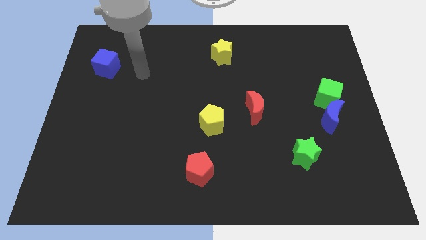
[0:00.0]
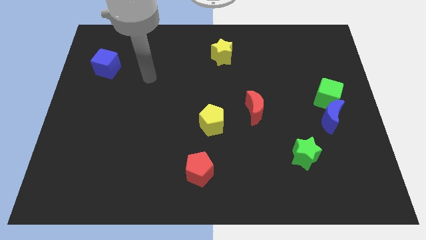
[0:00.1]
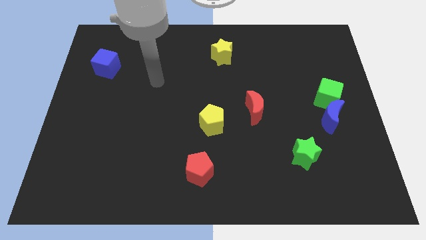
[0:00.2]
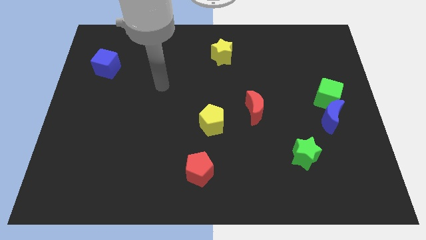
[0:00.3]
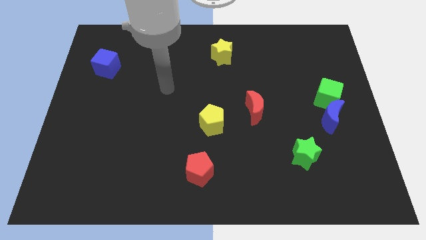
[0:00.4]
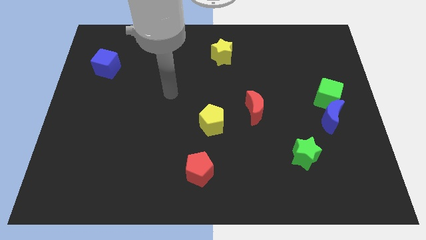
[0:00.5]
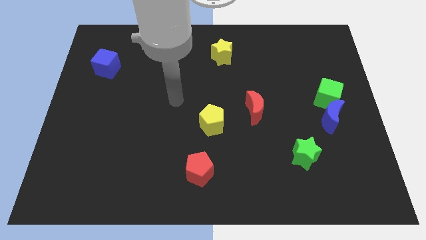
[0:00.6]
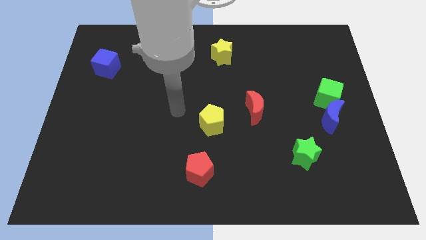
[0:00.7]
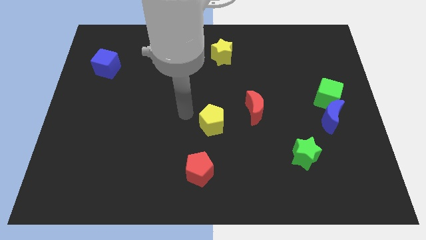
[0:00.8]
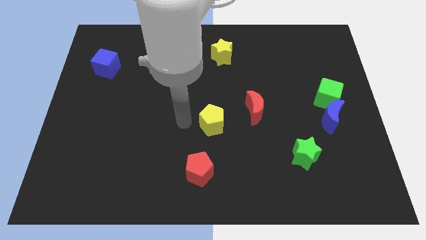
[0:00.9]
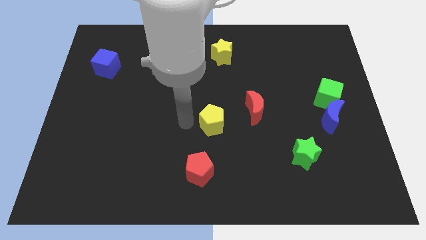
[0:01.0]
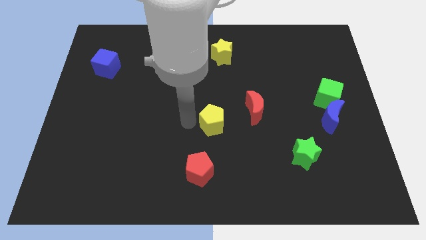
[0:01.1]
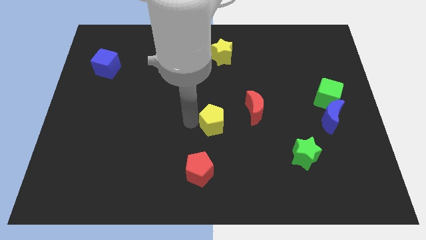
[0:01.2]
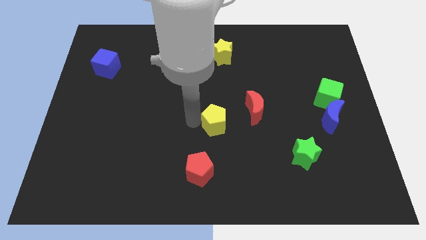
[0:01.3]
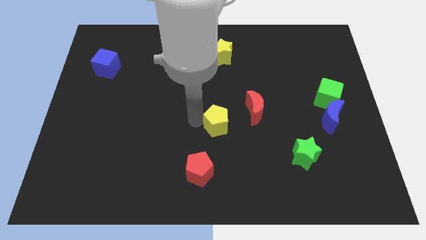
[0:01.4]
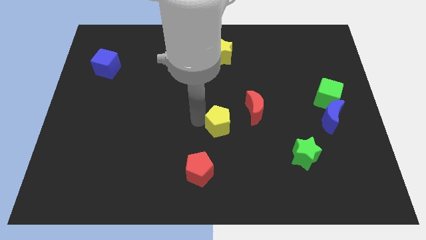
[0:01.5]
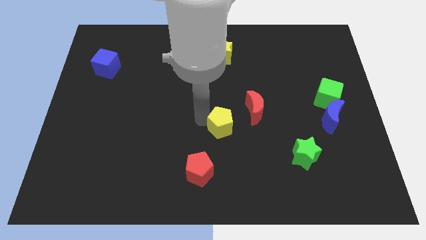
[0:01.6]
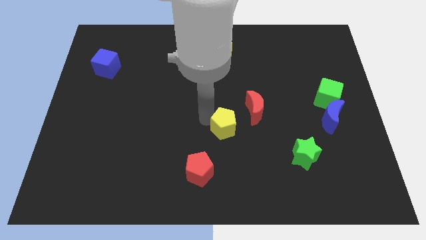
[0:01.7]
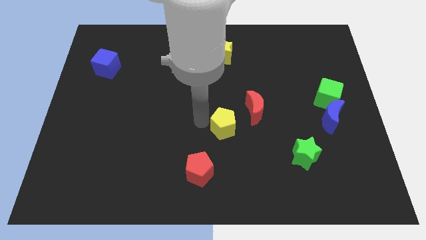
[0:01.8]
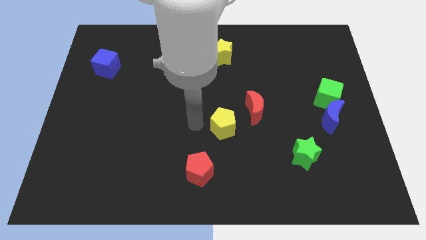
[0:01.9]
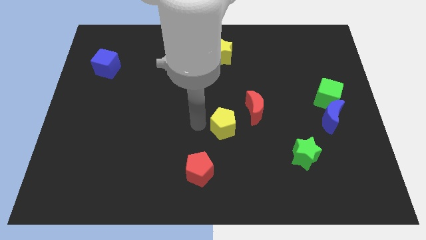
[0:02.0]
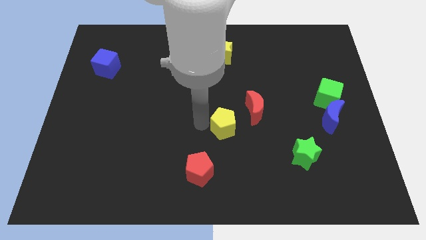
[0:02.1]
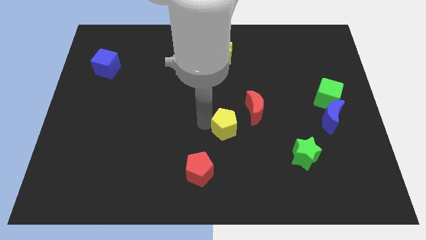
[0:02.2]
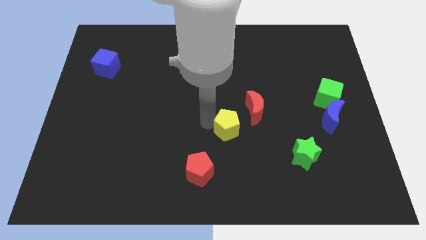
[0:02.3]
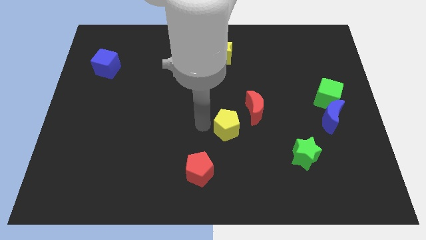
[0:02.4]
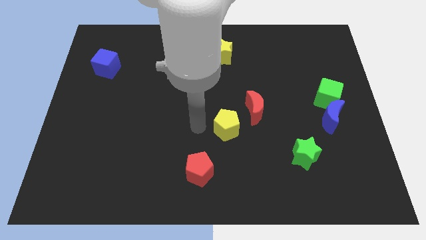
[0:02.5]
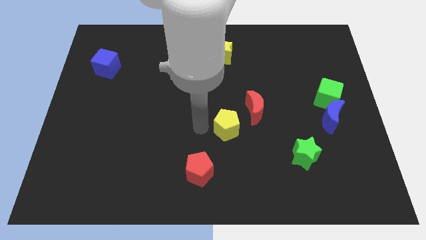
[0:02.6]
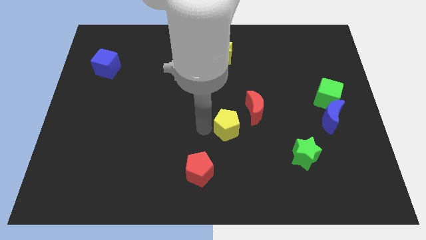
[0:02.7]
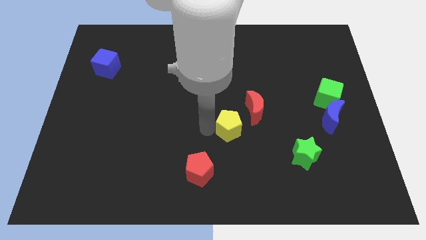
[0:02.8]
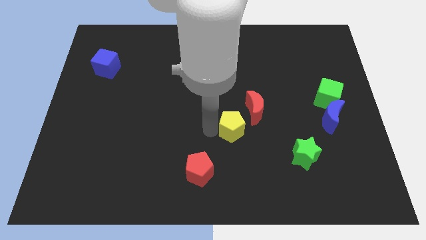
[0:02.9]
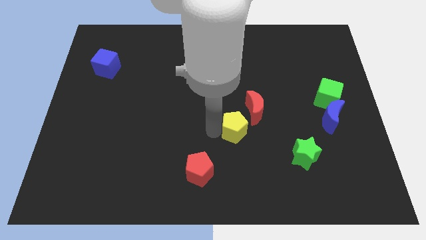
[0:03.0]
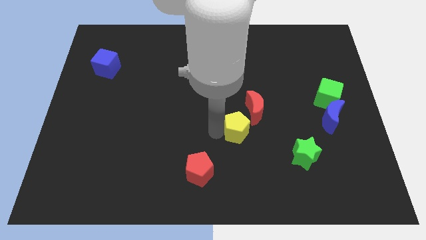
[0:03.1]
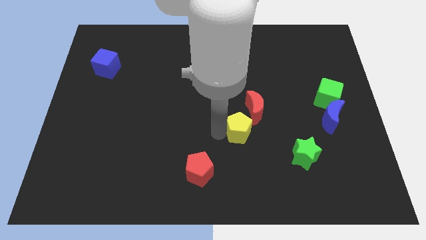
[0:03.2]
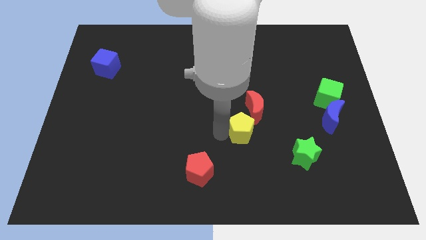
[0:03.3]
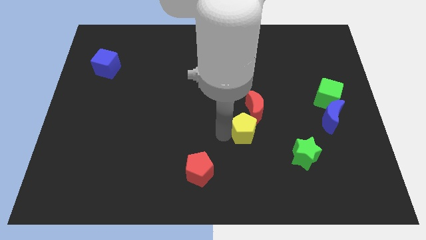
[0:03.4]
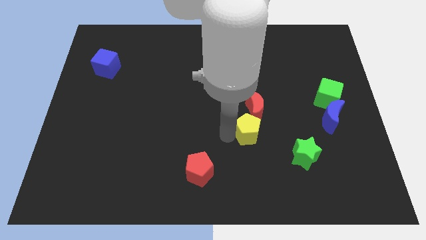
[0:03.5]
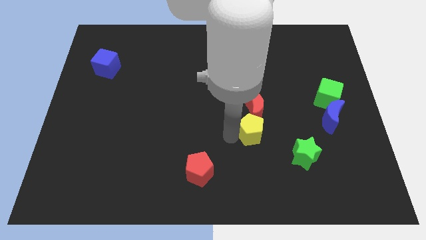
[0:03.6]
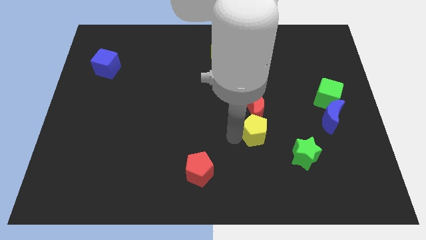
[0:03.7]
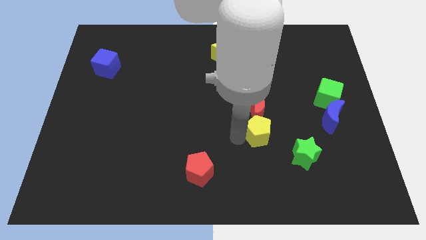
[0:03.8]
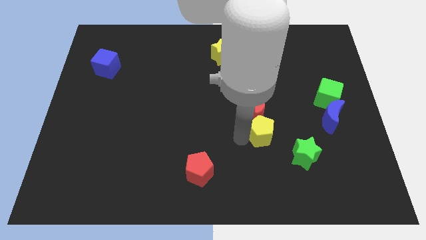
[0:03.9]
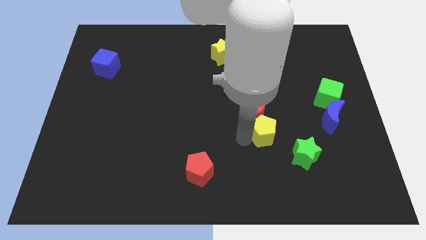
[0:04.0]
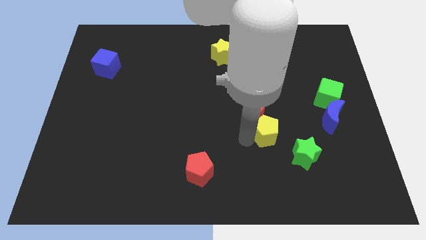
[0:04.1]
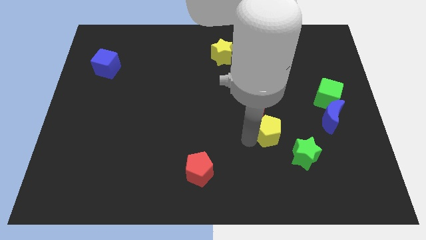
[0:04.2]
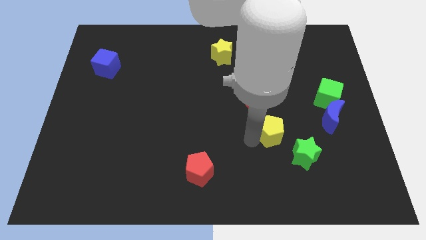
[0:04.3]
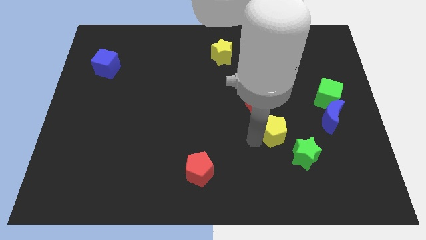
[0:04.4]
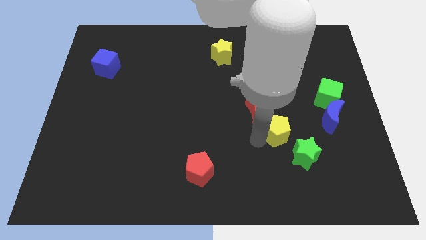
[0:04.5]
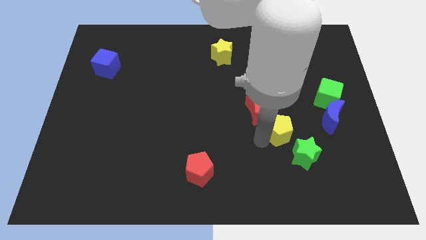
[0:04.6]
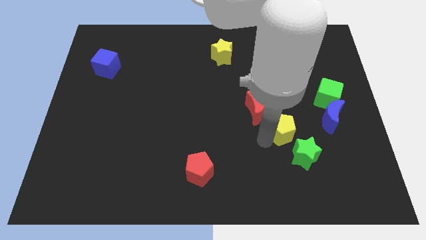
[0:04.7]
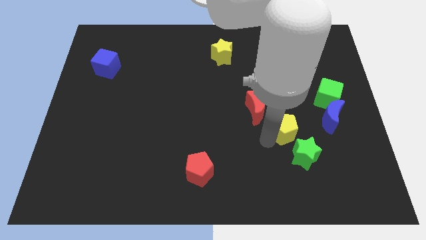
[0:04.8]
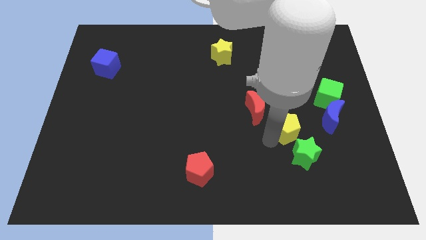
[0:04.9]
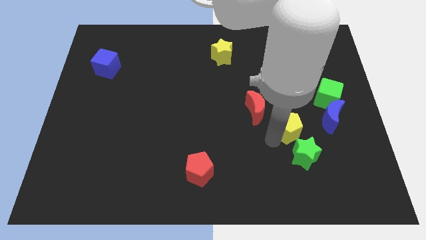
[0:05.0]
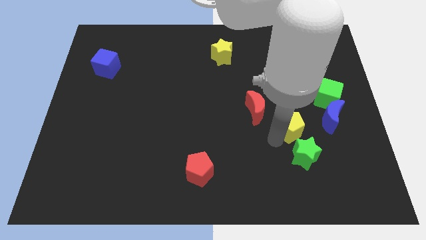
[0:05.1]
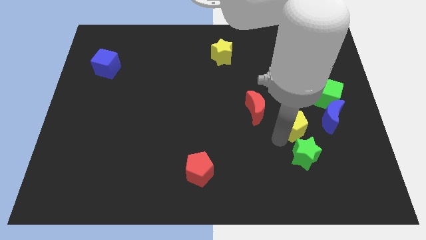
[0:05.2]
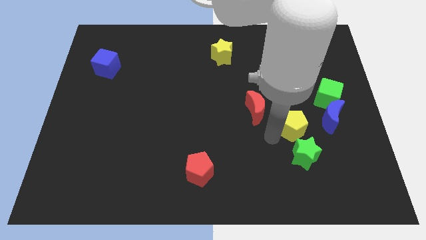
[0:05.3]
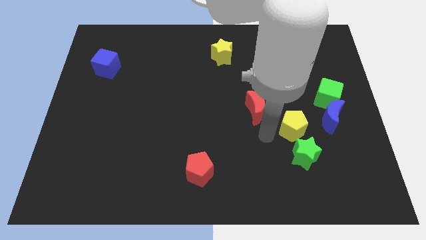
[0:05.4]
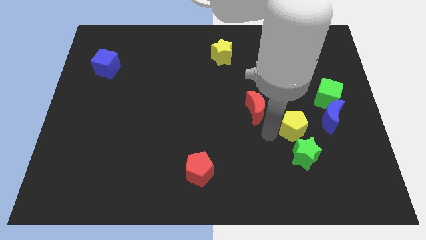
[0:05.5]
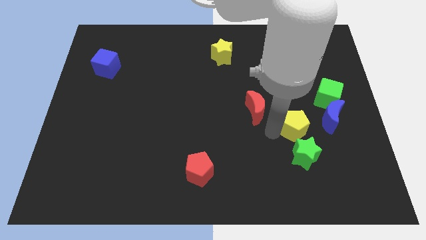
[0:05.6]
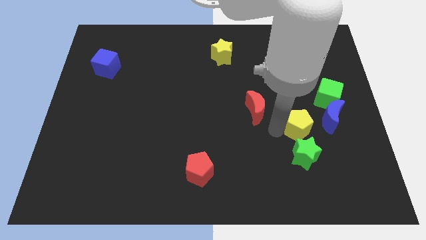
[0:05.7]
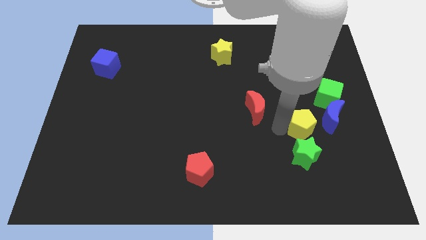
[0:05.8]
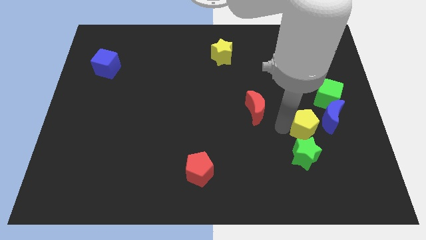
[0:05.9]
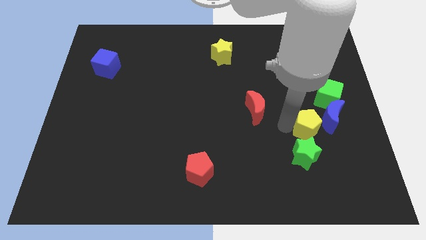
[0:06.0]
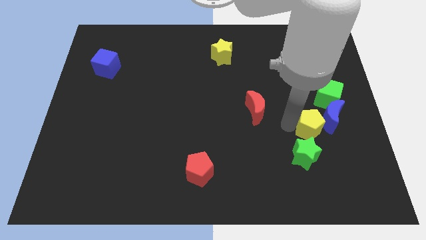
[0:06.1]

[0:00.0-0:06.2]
put the yellow pentagon close to the blue moon

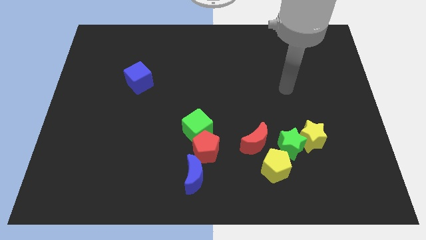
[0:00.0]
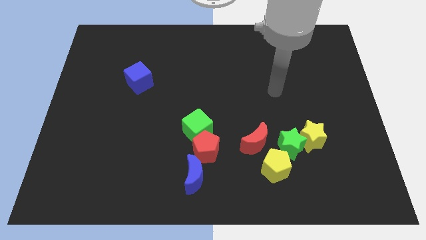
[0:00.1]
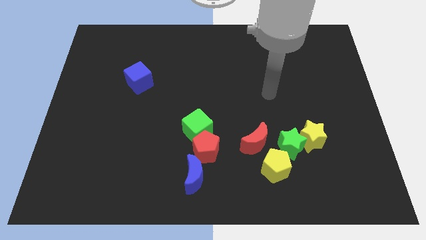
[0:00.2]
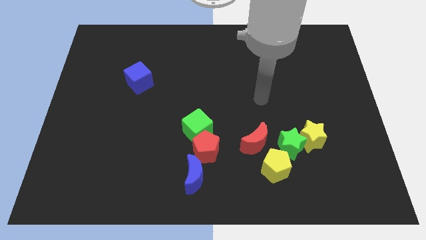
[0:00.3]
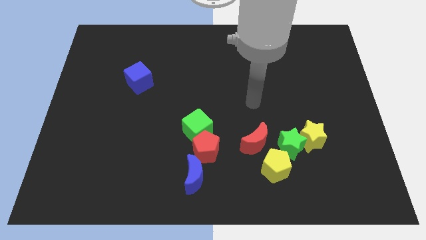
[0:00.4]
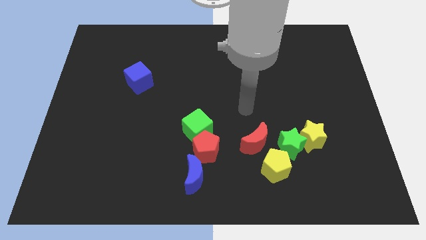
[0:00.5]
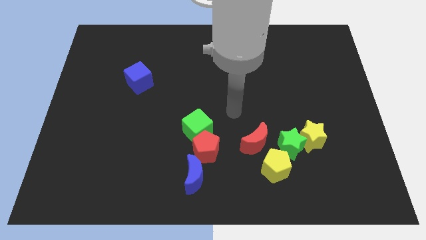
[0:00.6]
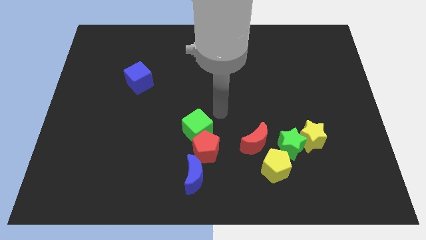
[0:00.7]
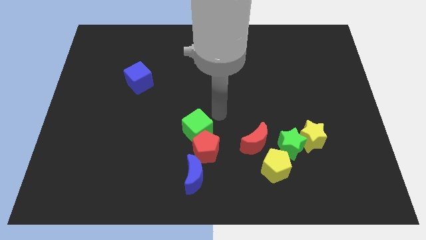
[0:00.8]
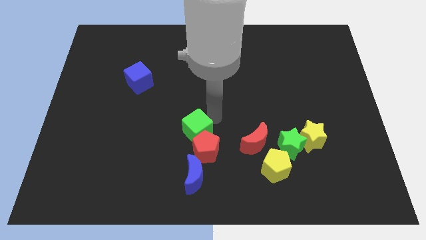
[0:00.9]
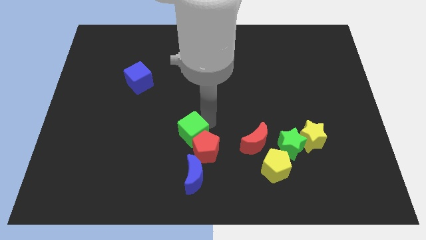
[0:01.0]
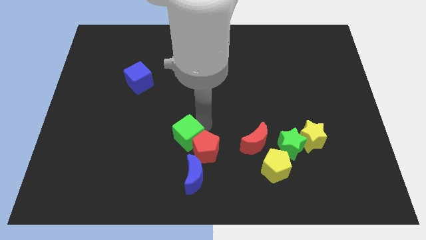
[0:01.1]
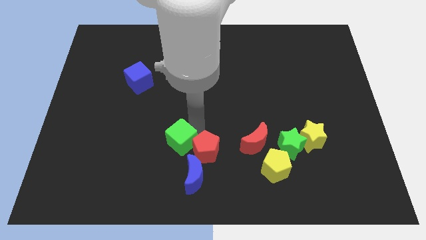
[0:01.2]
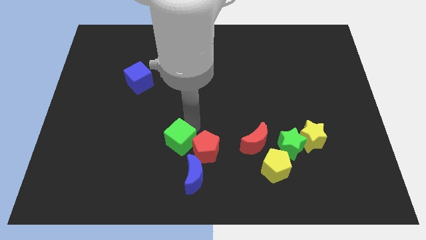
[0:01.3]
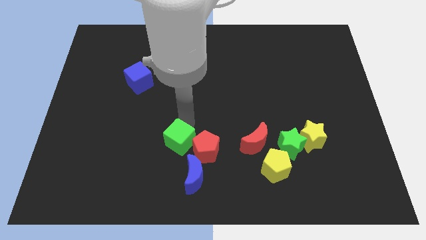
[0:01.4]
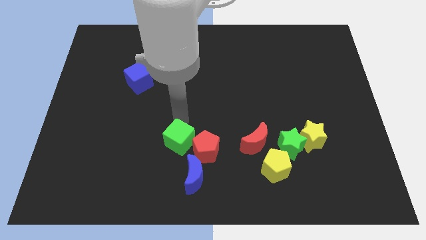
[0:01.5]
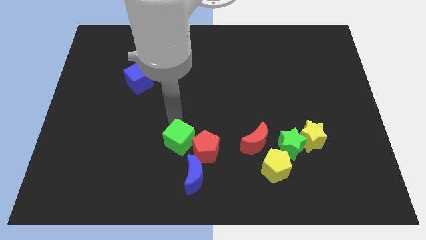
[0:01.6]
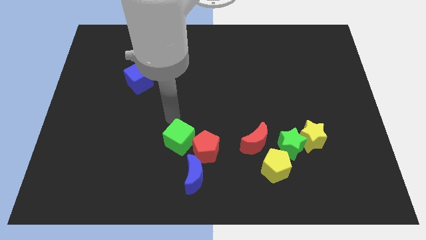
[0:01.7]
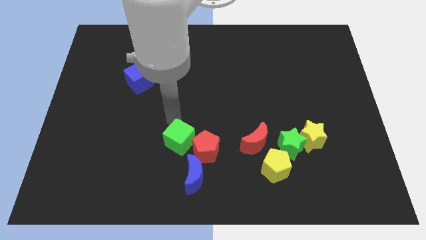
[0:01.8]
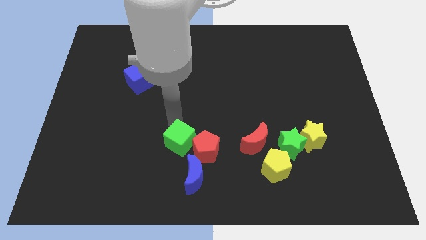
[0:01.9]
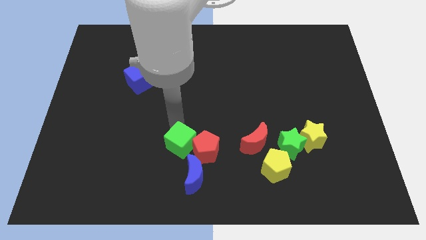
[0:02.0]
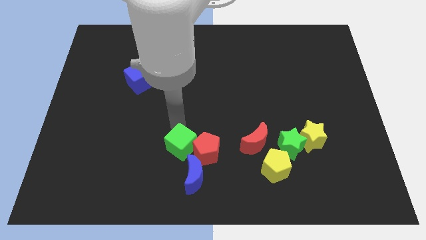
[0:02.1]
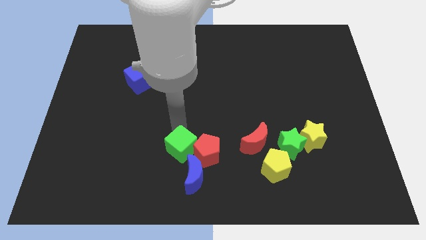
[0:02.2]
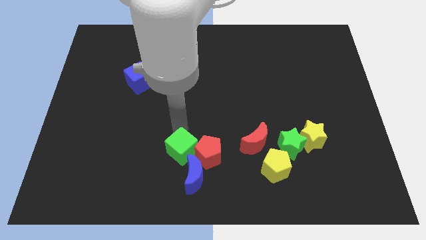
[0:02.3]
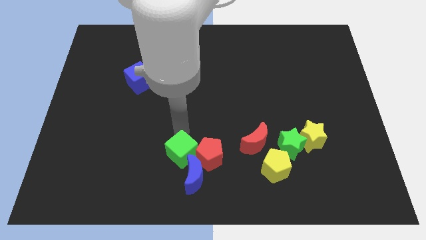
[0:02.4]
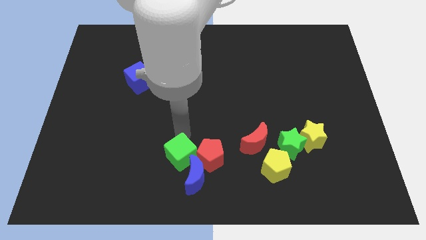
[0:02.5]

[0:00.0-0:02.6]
push the green cube next to the blue moon
